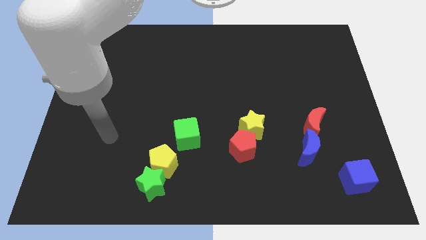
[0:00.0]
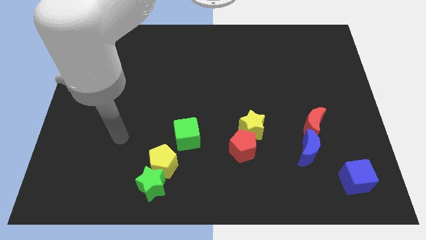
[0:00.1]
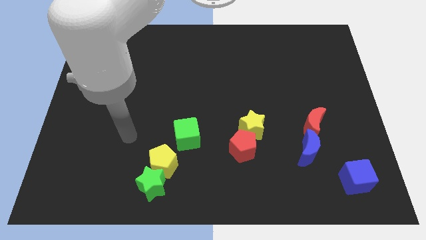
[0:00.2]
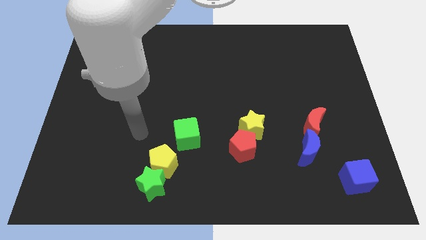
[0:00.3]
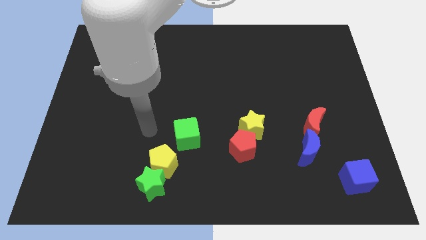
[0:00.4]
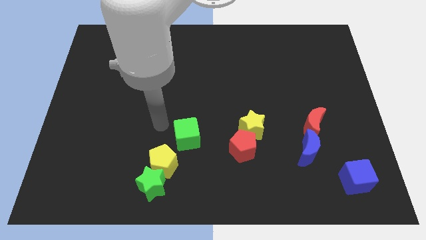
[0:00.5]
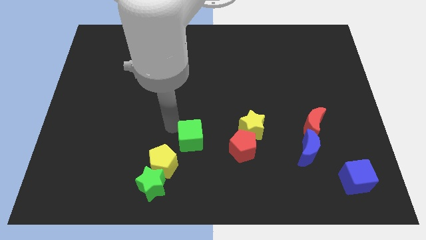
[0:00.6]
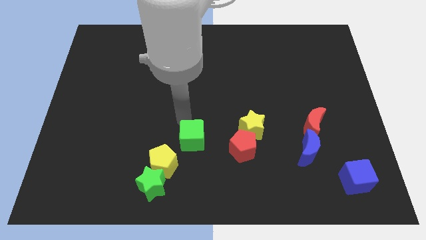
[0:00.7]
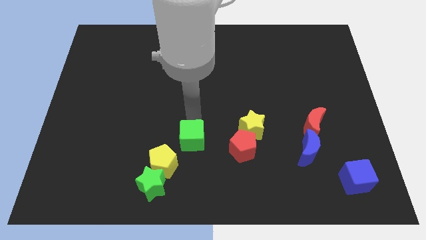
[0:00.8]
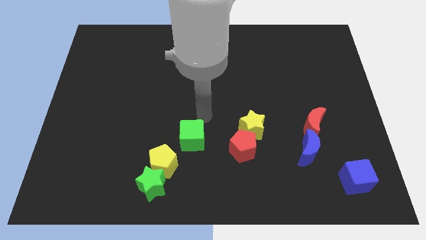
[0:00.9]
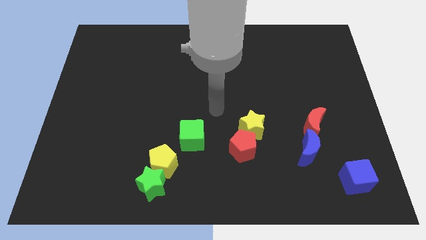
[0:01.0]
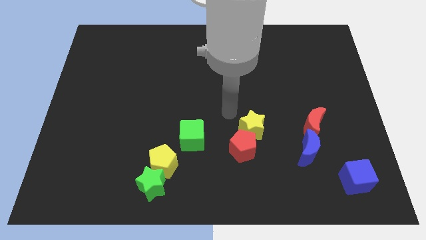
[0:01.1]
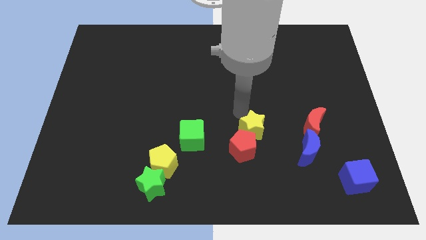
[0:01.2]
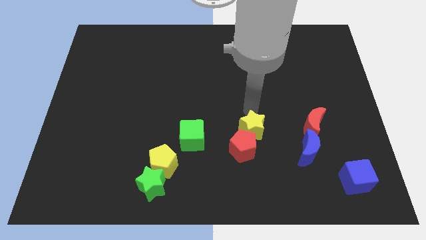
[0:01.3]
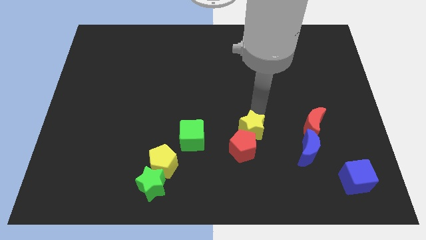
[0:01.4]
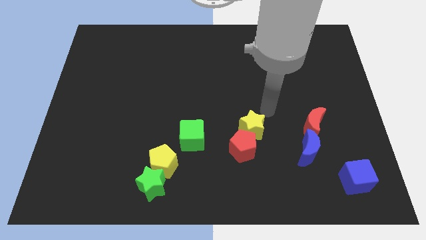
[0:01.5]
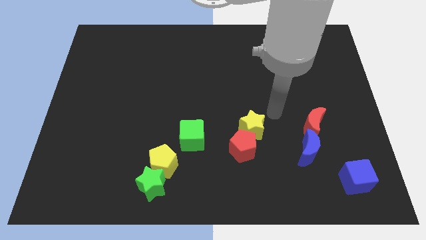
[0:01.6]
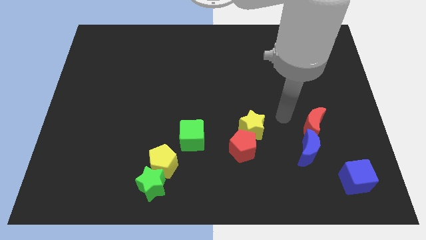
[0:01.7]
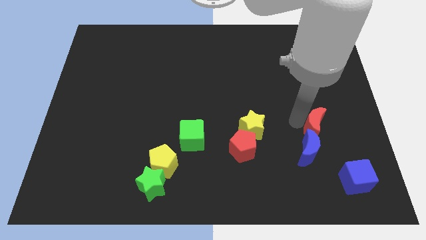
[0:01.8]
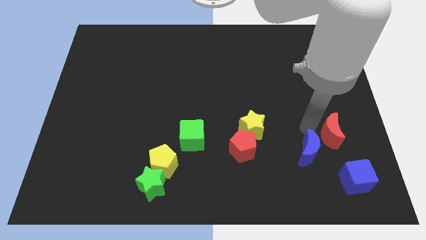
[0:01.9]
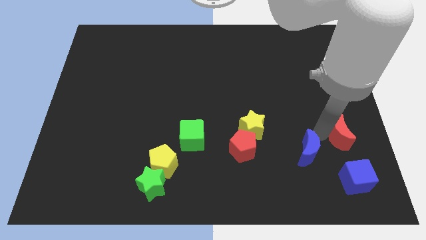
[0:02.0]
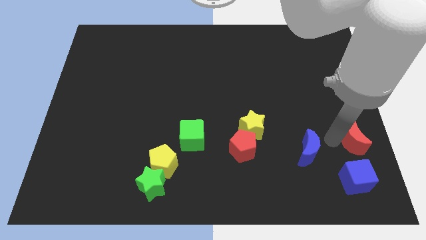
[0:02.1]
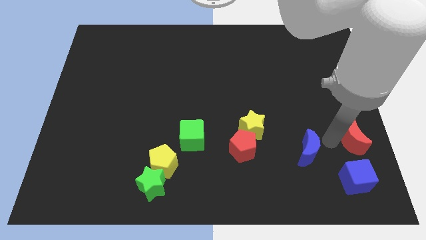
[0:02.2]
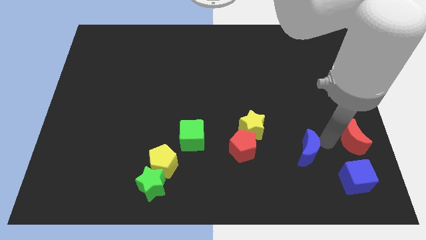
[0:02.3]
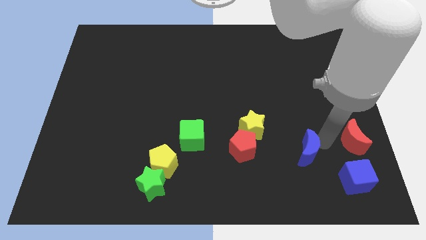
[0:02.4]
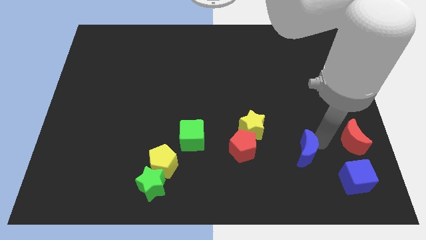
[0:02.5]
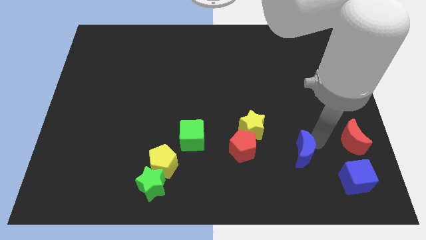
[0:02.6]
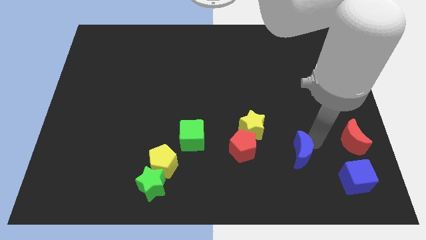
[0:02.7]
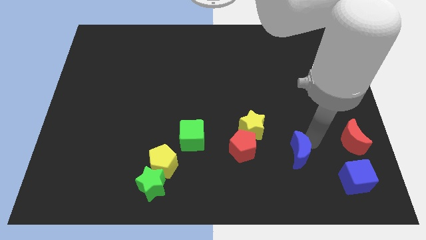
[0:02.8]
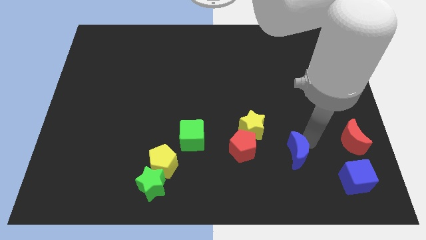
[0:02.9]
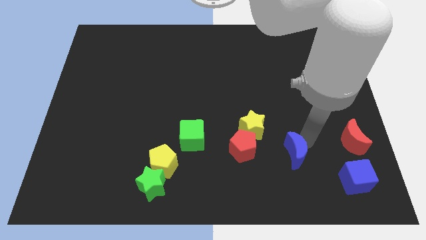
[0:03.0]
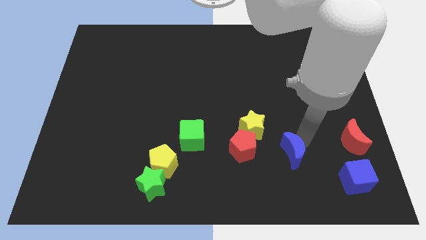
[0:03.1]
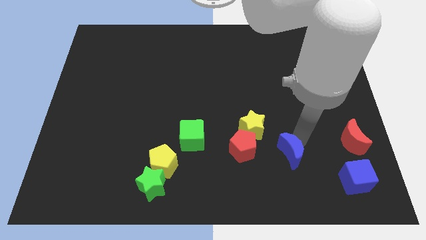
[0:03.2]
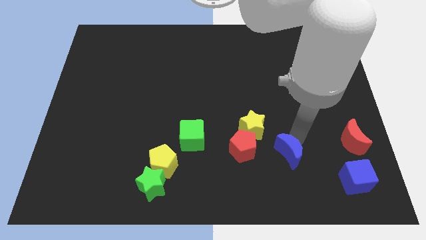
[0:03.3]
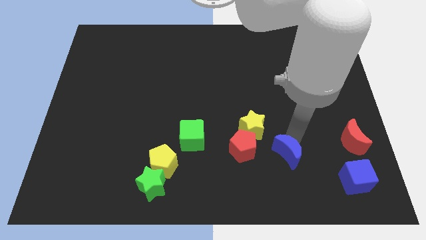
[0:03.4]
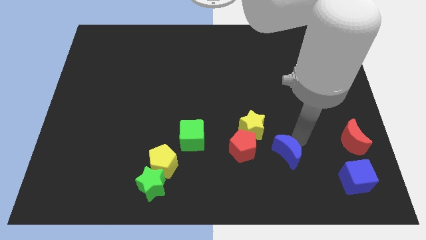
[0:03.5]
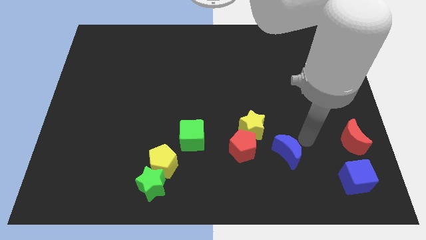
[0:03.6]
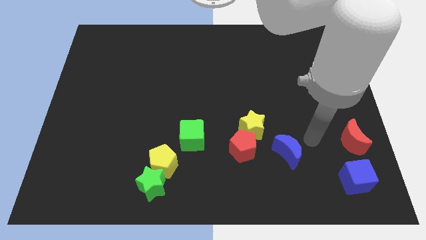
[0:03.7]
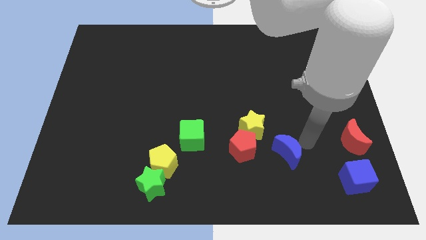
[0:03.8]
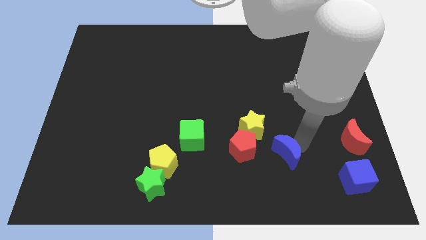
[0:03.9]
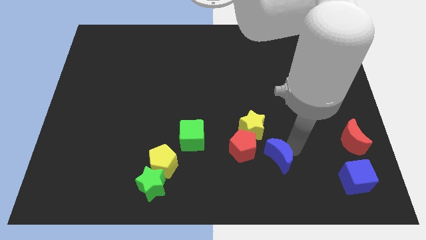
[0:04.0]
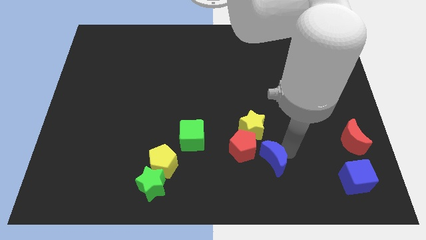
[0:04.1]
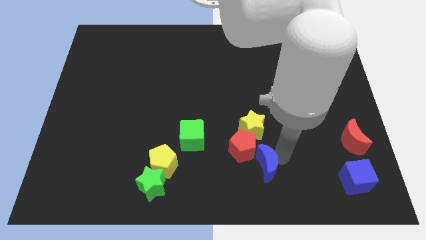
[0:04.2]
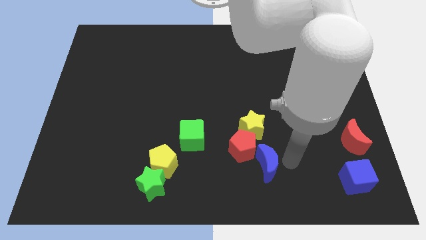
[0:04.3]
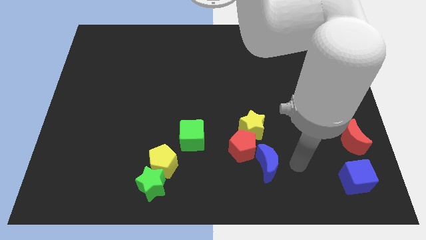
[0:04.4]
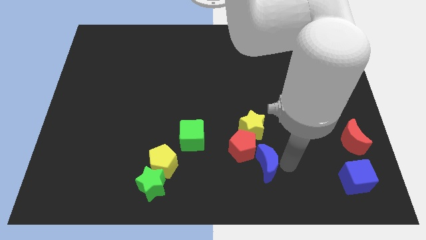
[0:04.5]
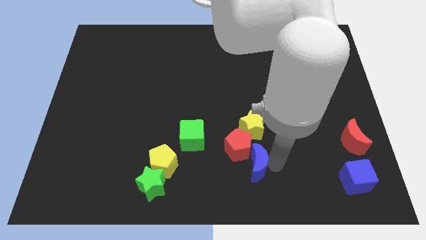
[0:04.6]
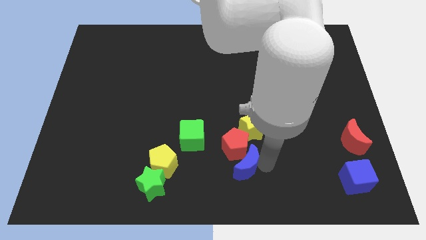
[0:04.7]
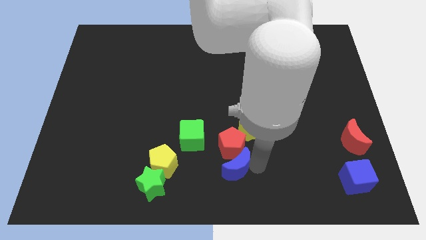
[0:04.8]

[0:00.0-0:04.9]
move the blue moon to the right of the yellow pentagon

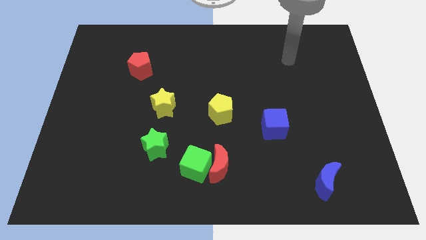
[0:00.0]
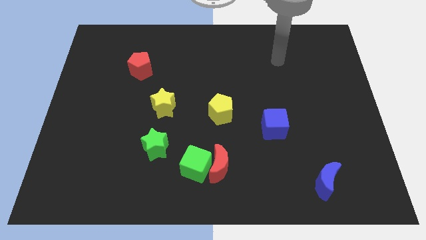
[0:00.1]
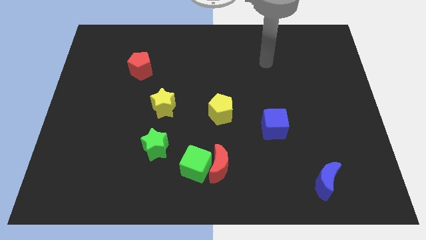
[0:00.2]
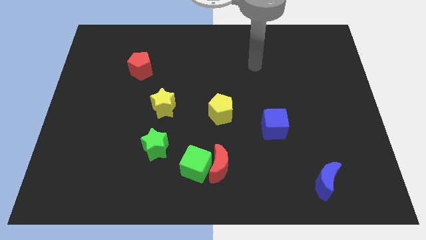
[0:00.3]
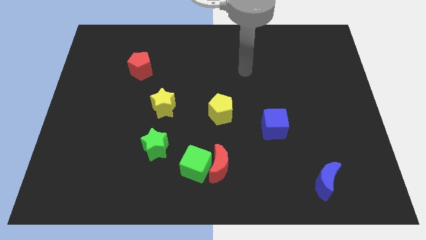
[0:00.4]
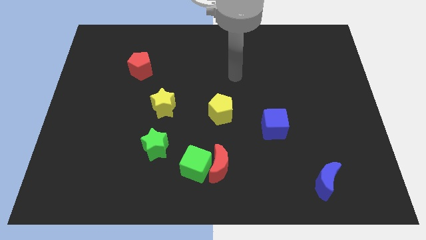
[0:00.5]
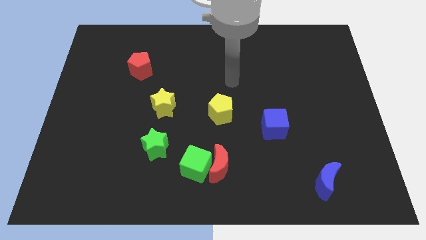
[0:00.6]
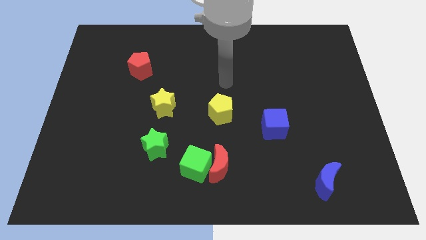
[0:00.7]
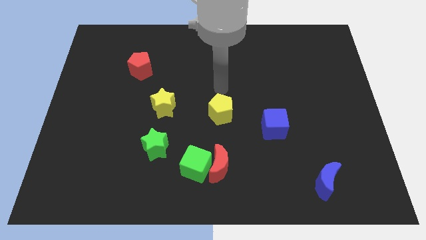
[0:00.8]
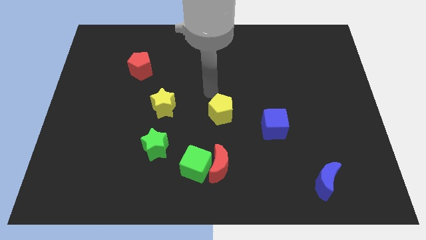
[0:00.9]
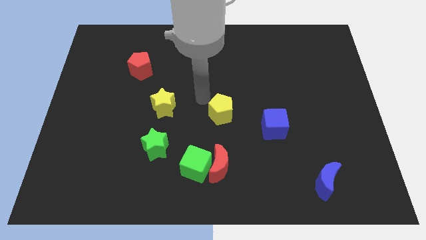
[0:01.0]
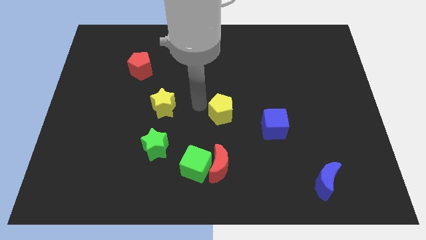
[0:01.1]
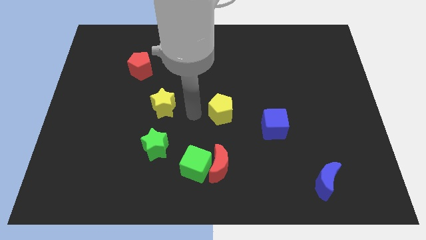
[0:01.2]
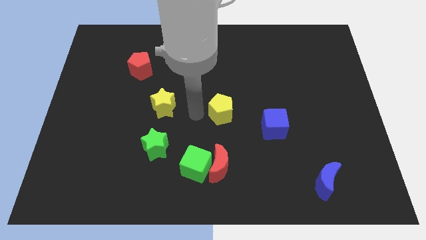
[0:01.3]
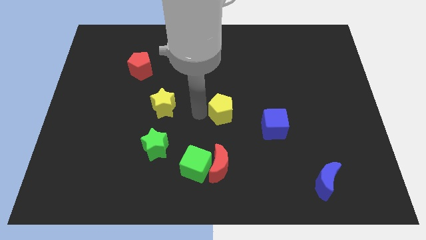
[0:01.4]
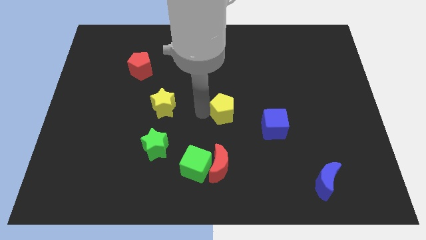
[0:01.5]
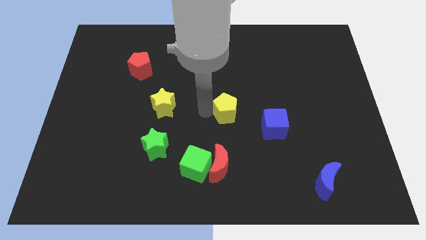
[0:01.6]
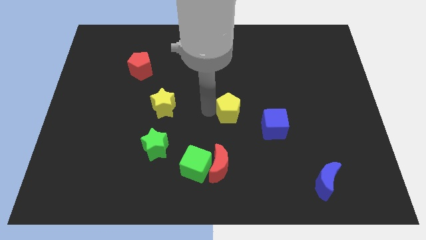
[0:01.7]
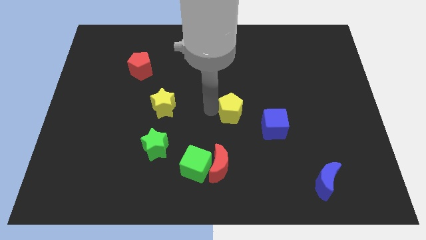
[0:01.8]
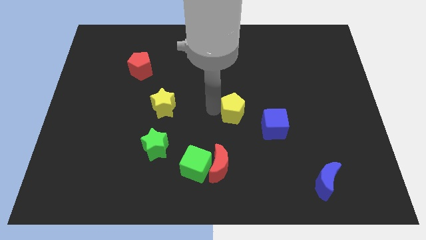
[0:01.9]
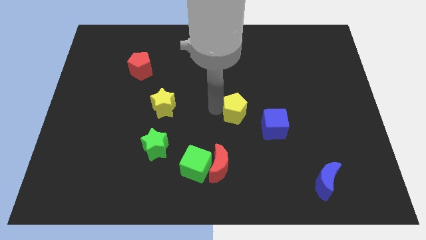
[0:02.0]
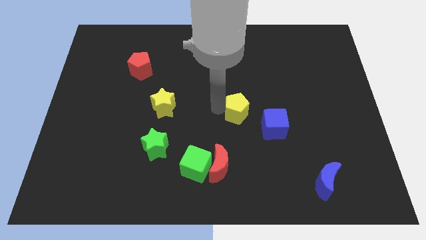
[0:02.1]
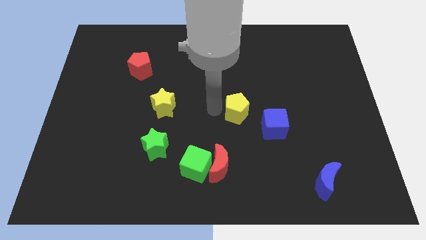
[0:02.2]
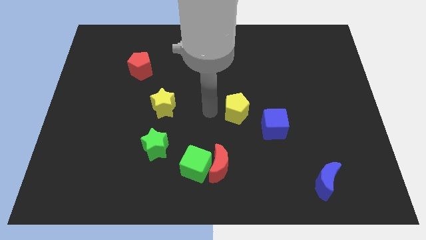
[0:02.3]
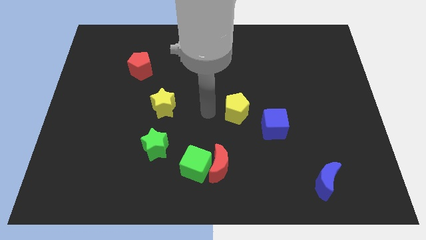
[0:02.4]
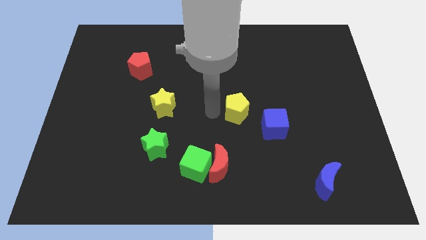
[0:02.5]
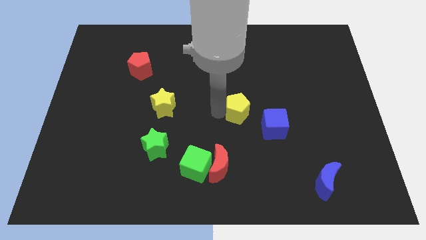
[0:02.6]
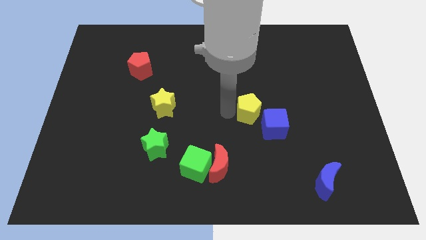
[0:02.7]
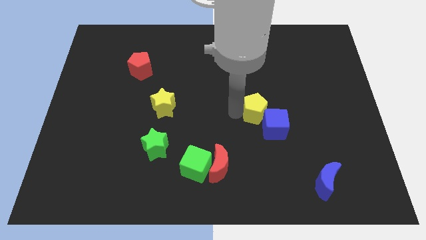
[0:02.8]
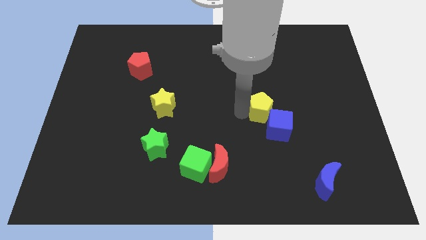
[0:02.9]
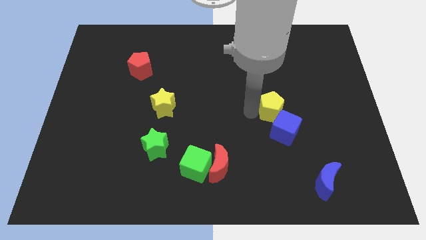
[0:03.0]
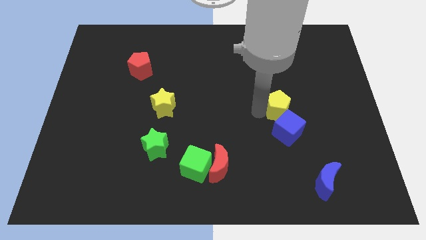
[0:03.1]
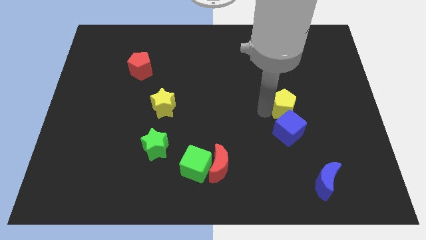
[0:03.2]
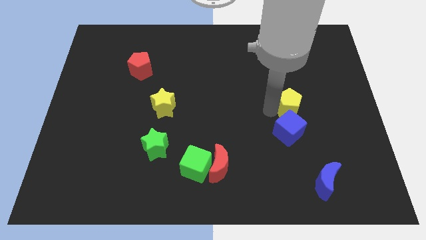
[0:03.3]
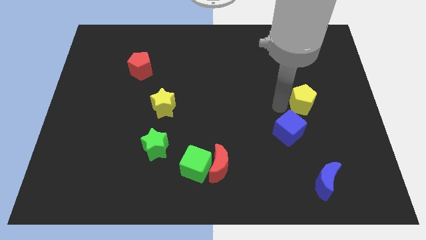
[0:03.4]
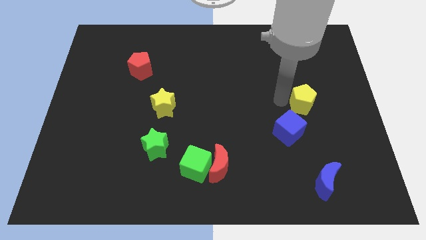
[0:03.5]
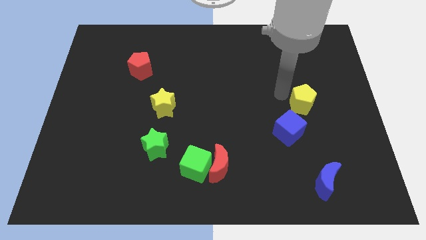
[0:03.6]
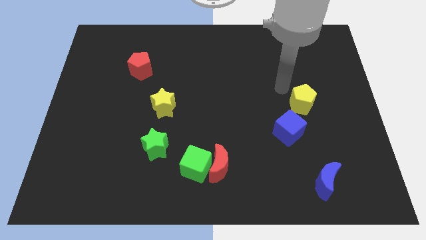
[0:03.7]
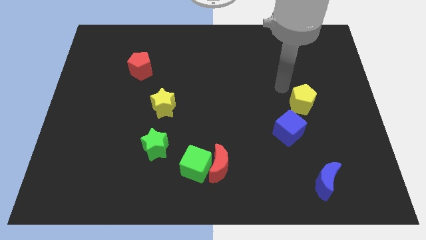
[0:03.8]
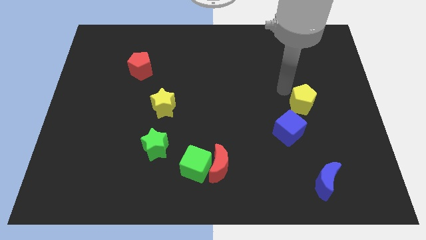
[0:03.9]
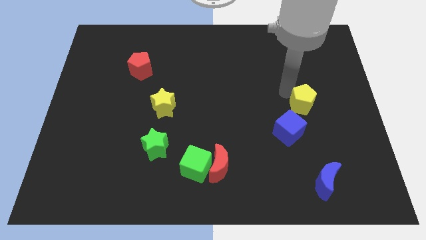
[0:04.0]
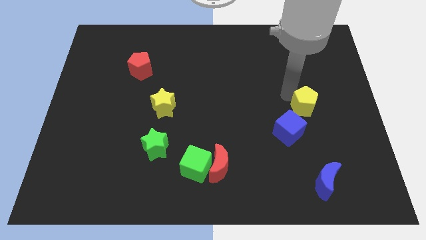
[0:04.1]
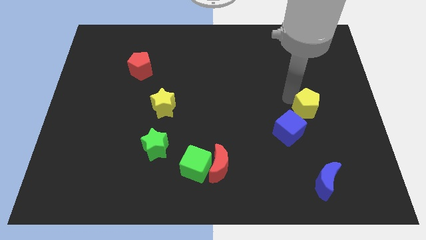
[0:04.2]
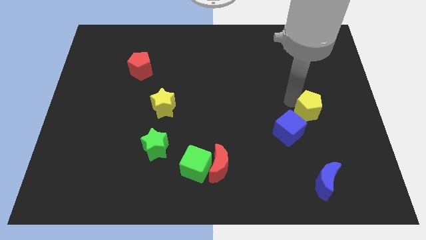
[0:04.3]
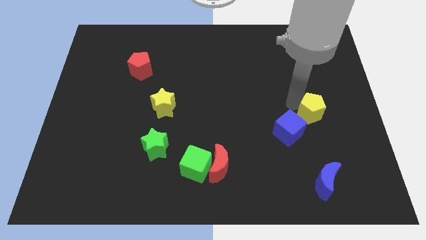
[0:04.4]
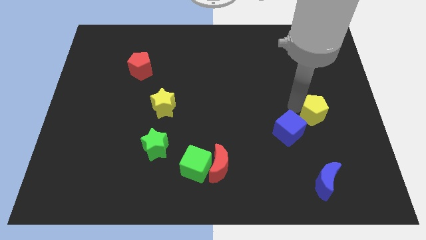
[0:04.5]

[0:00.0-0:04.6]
slide the yellow pentagon just right of the blue cube
